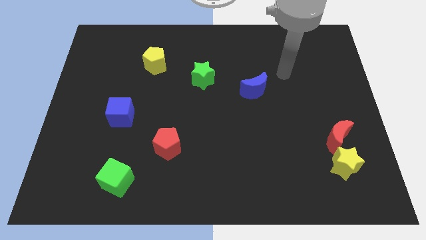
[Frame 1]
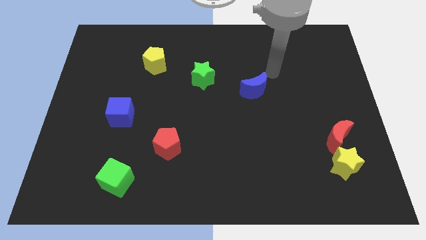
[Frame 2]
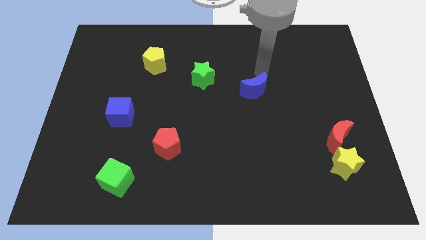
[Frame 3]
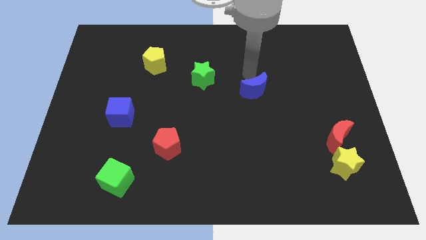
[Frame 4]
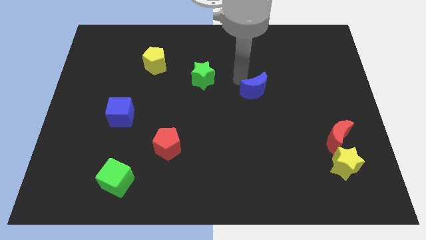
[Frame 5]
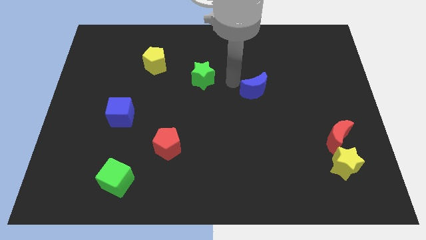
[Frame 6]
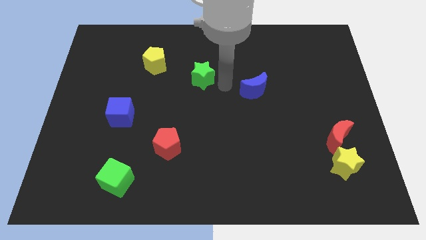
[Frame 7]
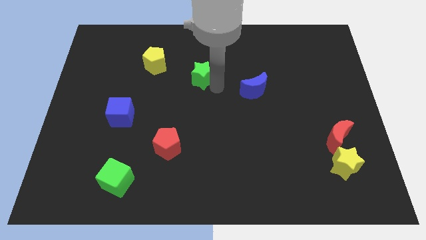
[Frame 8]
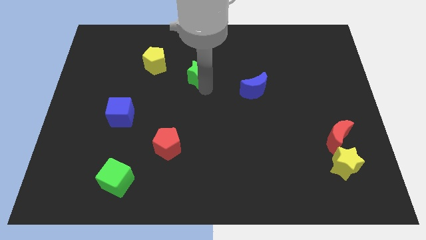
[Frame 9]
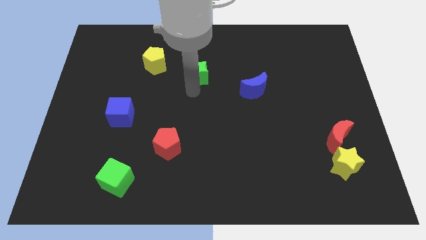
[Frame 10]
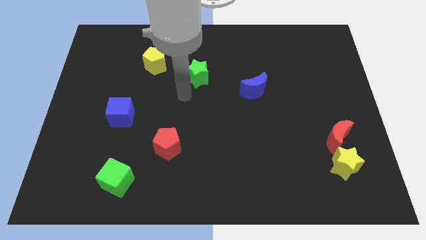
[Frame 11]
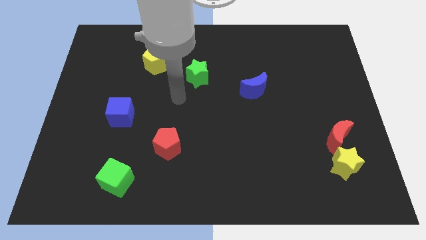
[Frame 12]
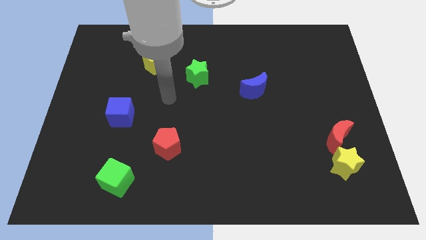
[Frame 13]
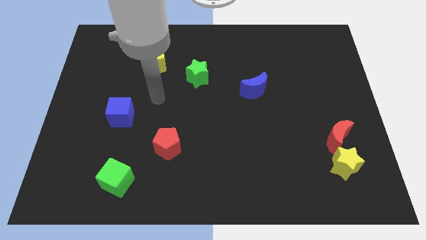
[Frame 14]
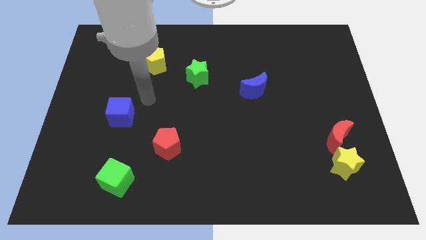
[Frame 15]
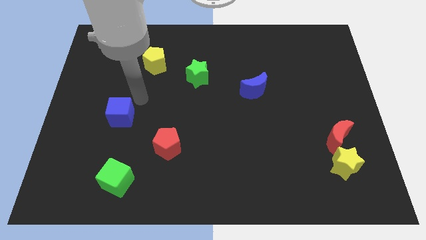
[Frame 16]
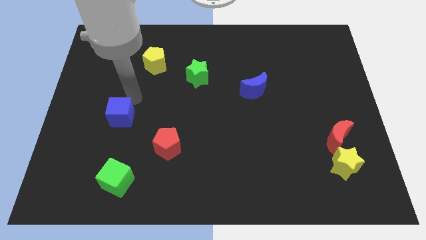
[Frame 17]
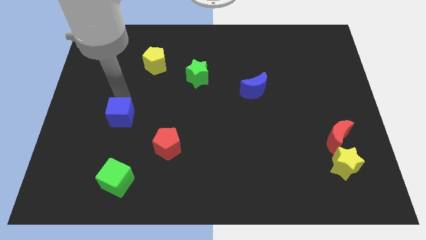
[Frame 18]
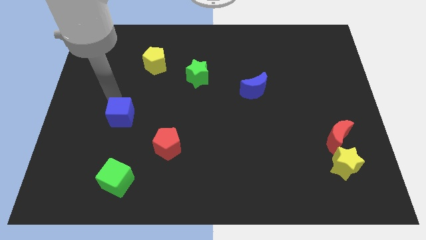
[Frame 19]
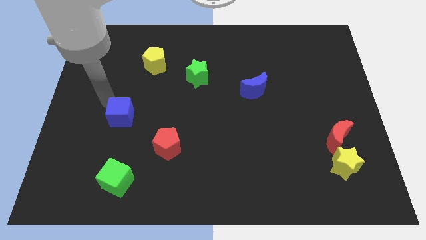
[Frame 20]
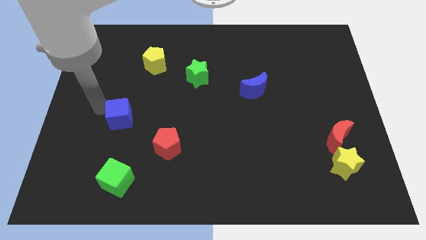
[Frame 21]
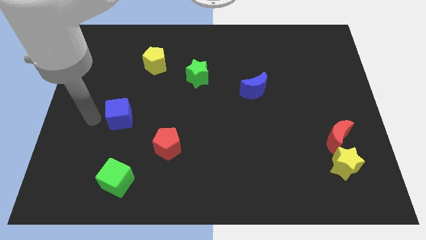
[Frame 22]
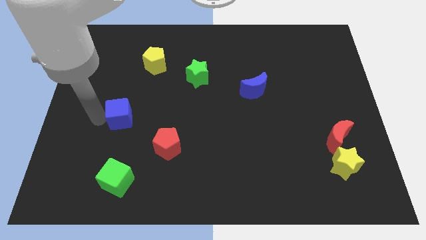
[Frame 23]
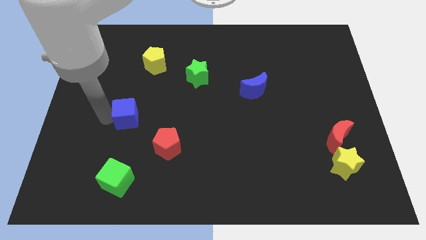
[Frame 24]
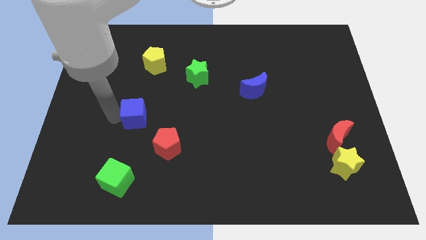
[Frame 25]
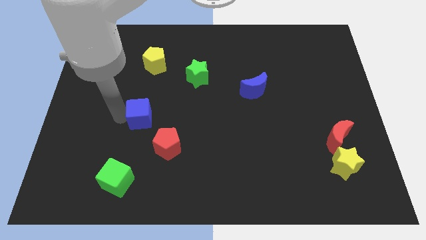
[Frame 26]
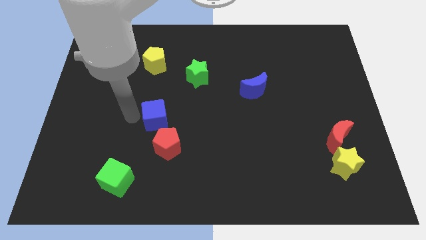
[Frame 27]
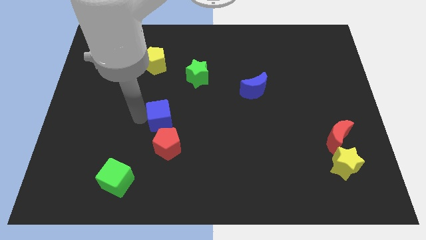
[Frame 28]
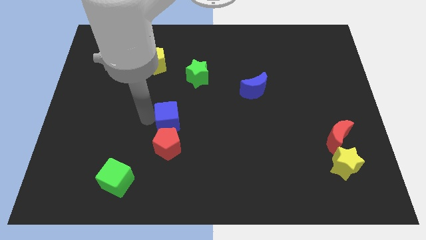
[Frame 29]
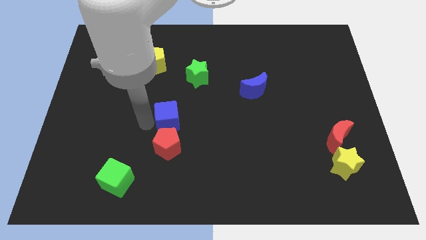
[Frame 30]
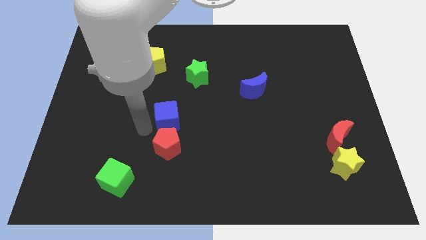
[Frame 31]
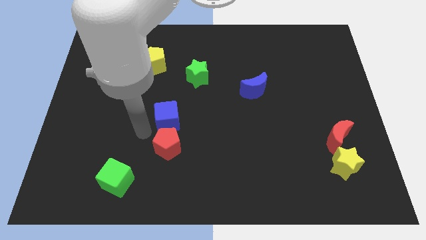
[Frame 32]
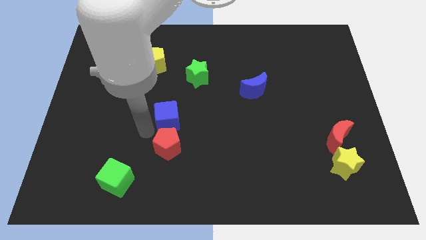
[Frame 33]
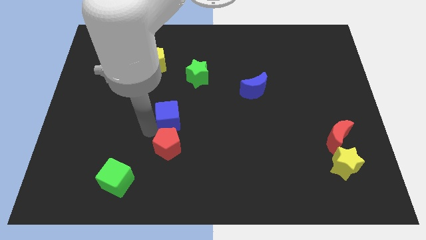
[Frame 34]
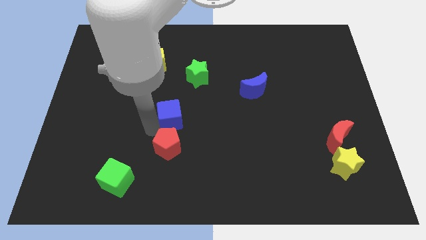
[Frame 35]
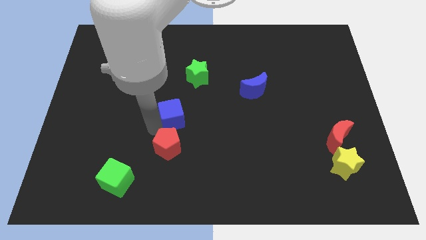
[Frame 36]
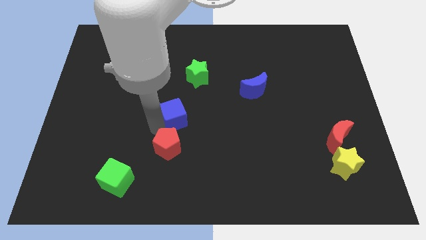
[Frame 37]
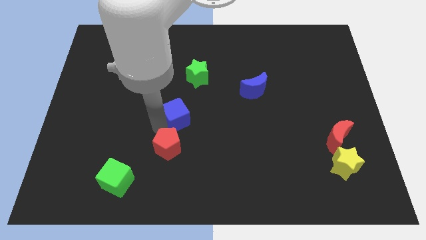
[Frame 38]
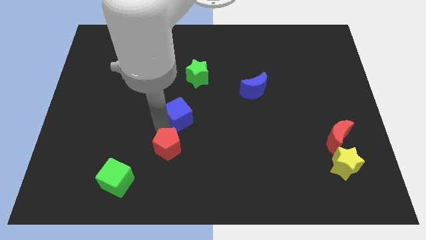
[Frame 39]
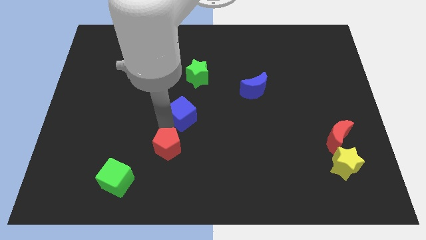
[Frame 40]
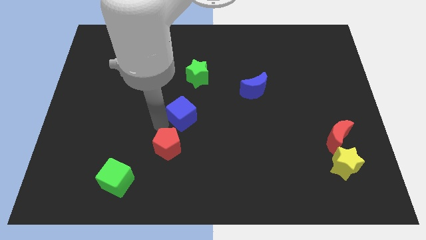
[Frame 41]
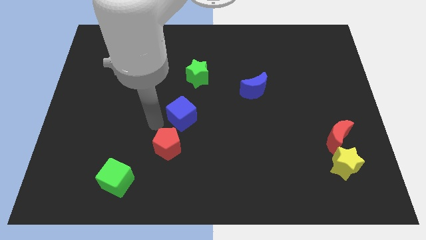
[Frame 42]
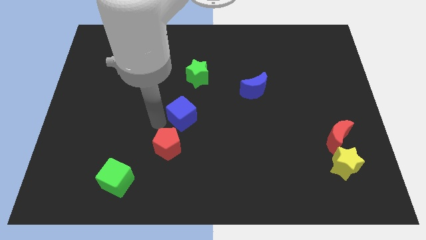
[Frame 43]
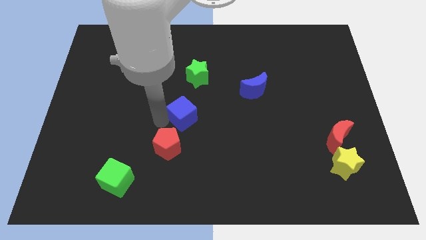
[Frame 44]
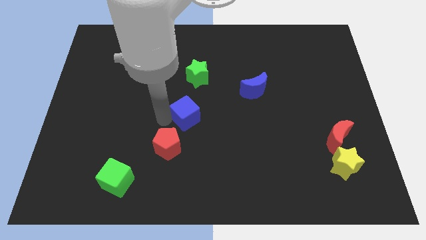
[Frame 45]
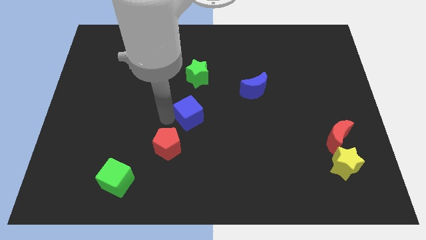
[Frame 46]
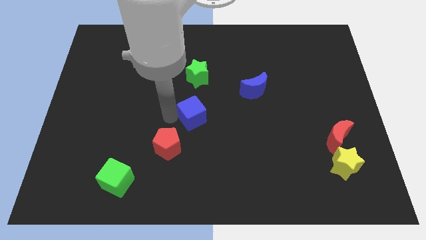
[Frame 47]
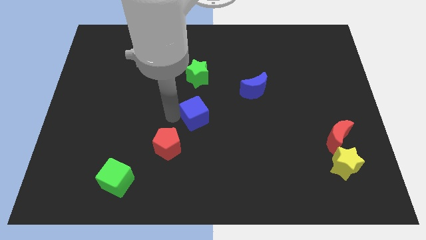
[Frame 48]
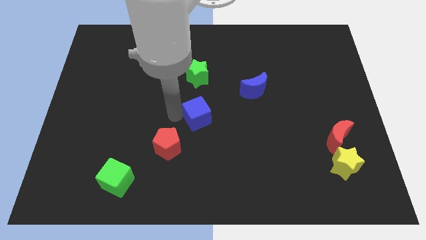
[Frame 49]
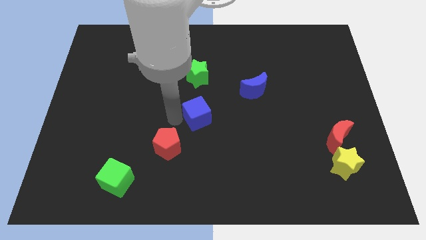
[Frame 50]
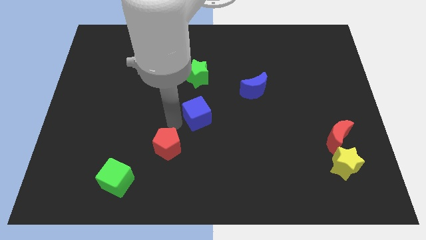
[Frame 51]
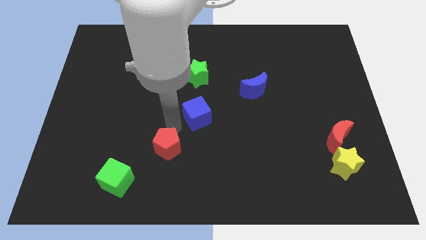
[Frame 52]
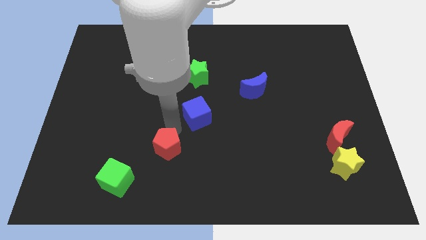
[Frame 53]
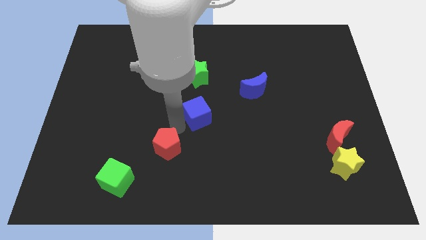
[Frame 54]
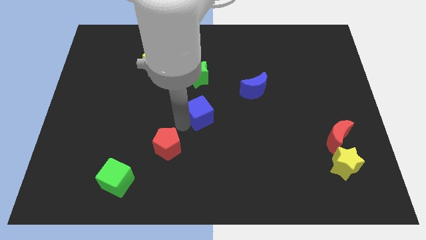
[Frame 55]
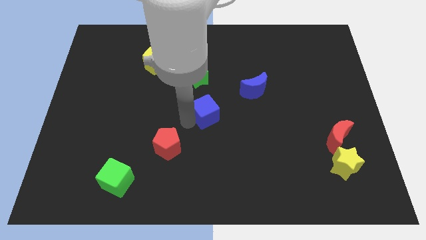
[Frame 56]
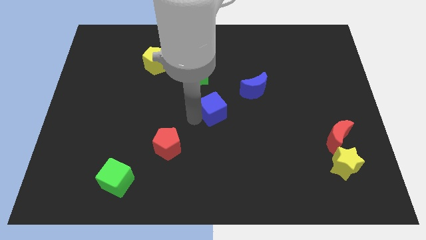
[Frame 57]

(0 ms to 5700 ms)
push the blue cube to the bottom left of the blue moon

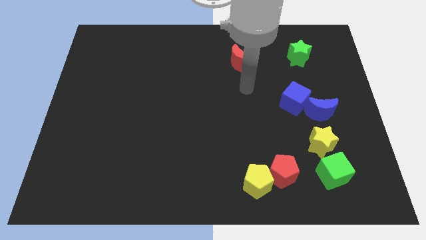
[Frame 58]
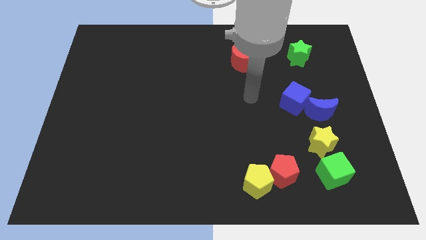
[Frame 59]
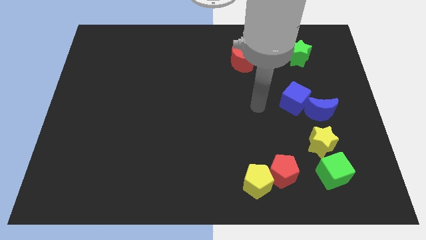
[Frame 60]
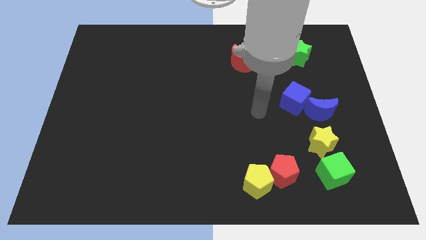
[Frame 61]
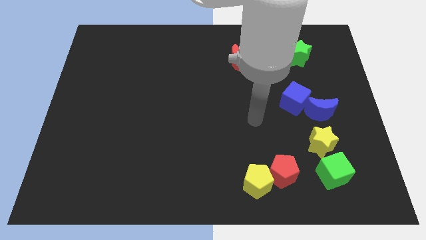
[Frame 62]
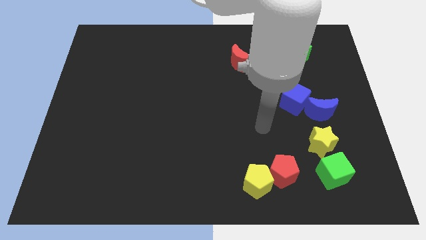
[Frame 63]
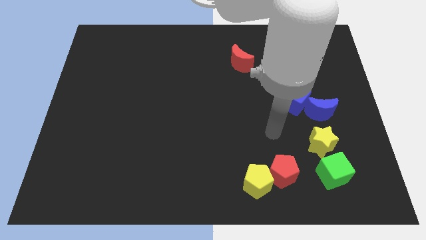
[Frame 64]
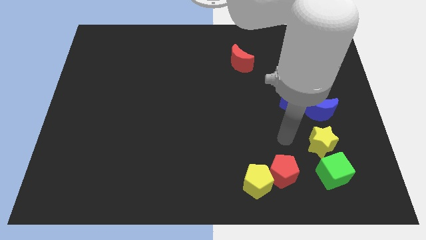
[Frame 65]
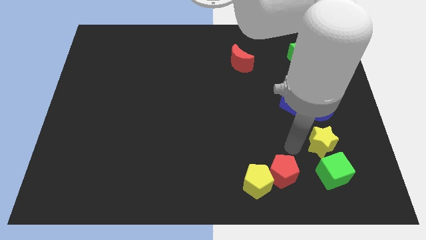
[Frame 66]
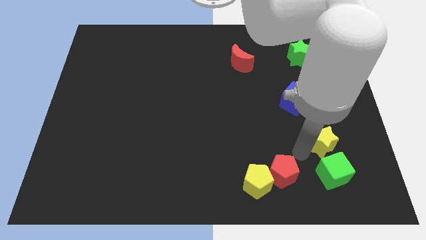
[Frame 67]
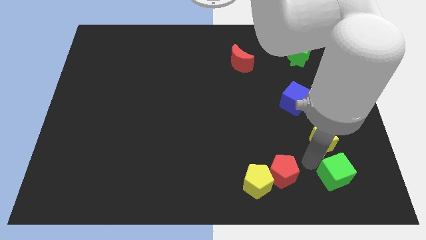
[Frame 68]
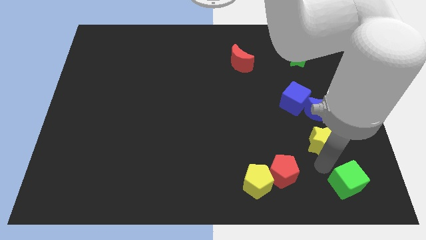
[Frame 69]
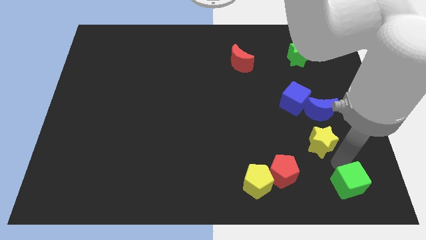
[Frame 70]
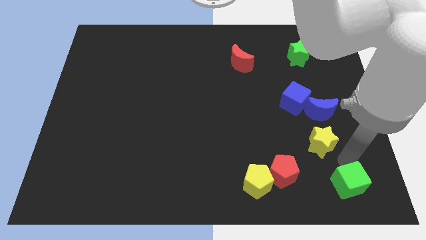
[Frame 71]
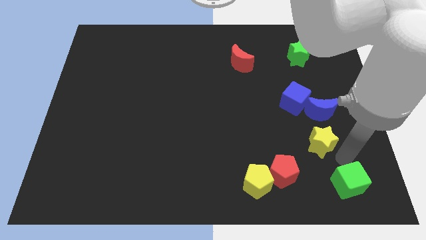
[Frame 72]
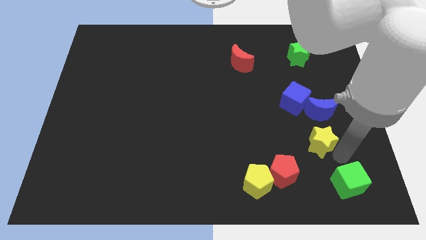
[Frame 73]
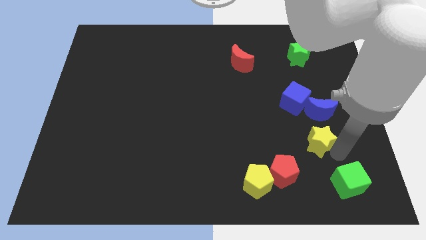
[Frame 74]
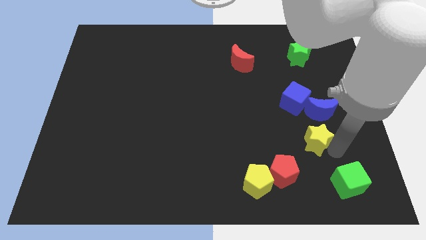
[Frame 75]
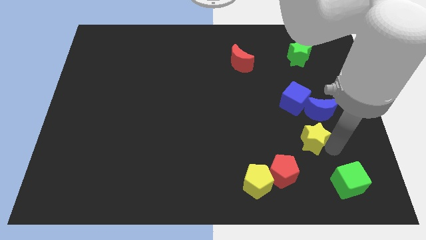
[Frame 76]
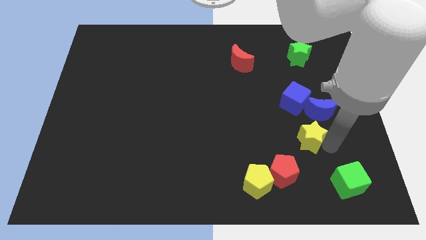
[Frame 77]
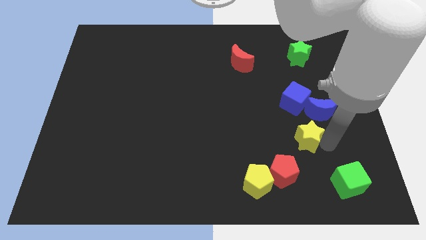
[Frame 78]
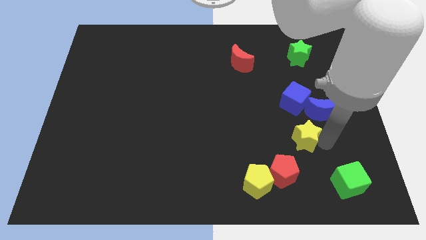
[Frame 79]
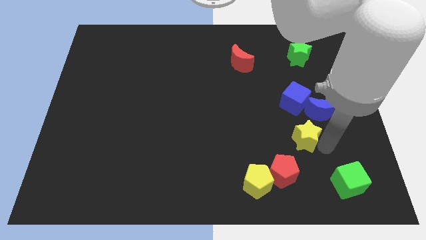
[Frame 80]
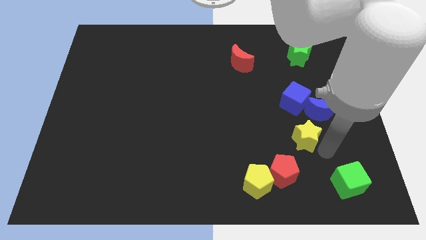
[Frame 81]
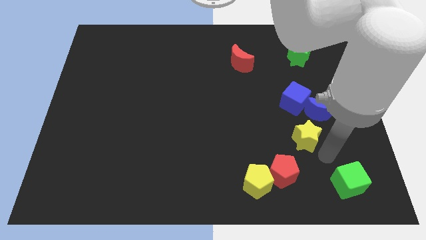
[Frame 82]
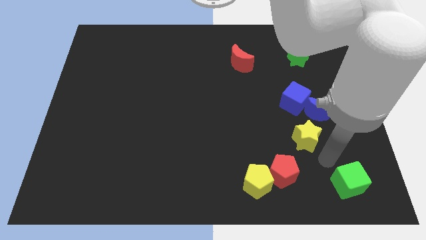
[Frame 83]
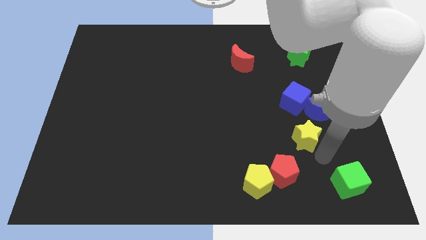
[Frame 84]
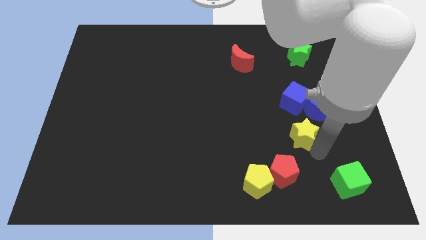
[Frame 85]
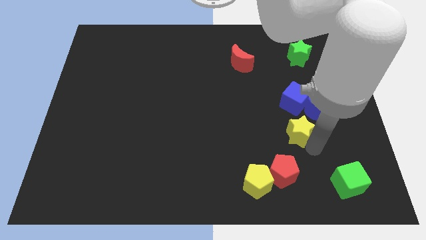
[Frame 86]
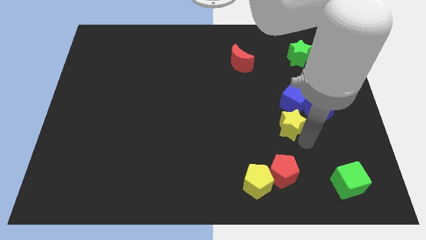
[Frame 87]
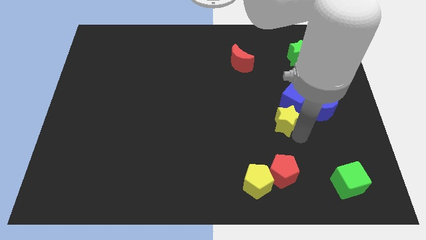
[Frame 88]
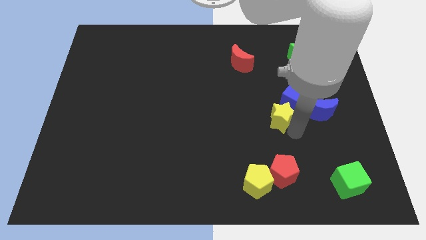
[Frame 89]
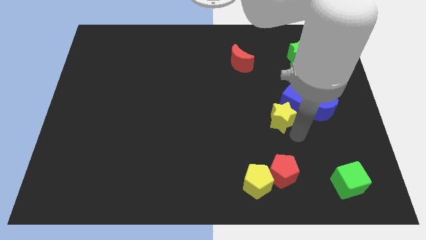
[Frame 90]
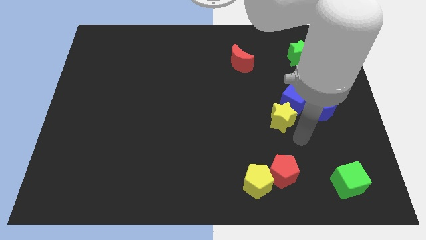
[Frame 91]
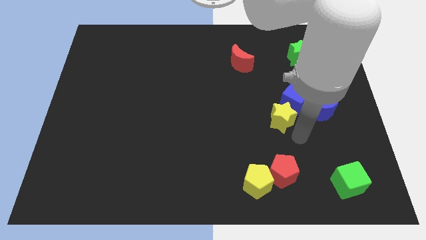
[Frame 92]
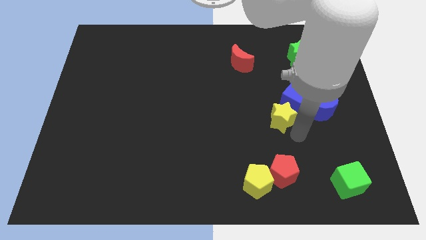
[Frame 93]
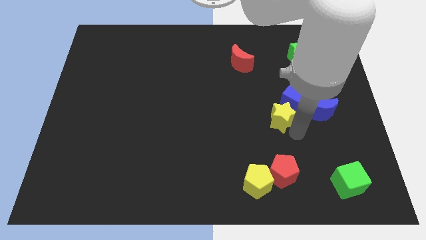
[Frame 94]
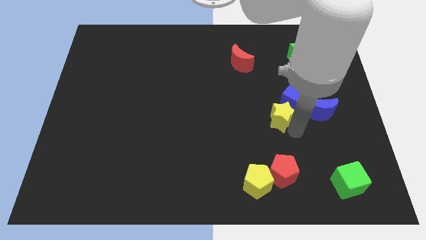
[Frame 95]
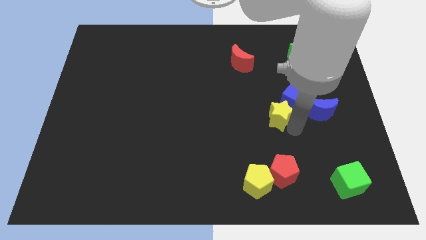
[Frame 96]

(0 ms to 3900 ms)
move the yellow star to the left of the blue cube
